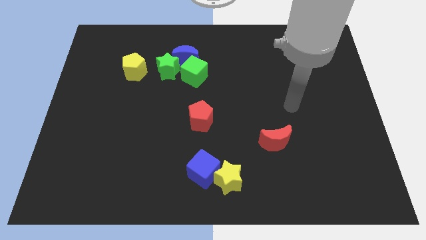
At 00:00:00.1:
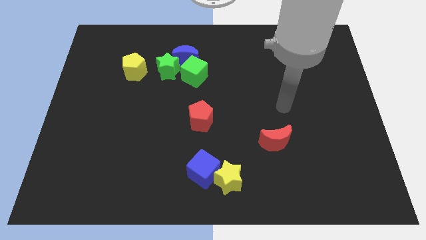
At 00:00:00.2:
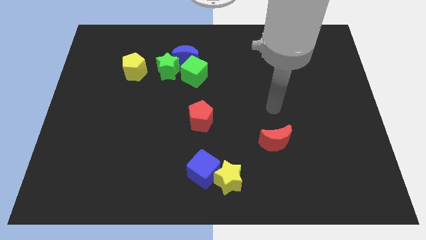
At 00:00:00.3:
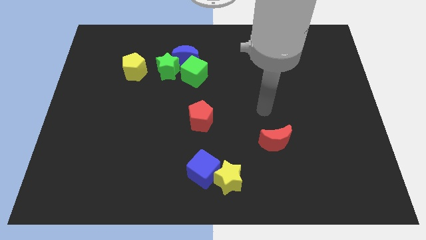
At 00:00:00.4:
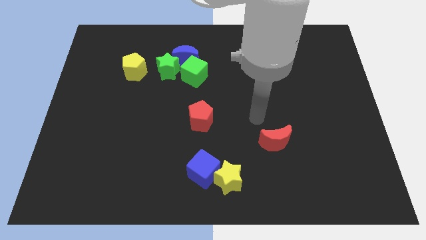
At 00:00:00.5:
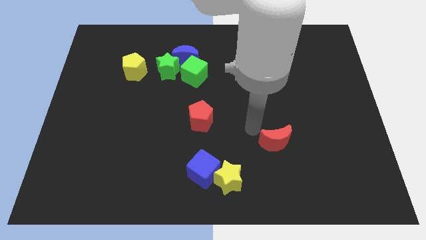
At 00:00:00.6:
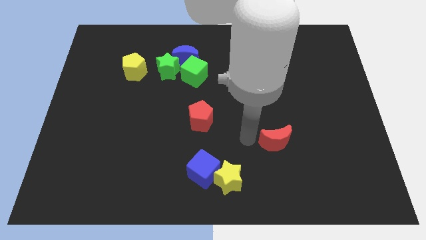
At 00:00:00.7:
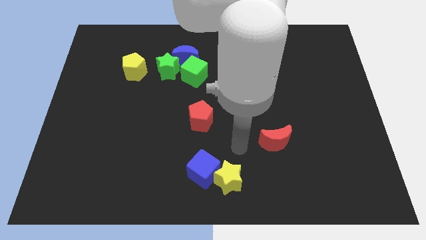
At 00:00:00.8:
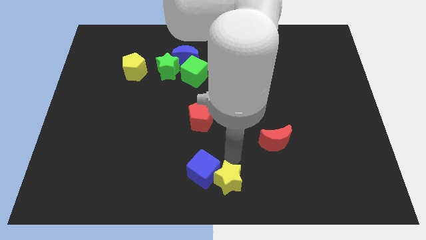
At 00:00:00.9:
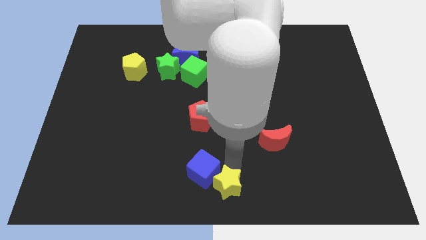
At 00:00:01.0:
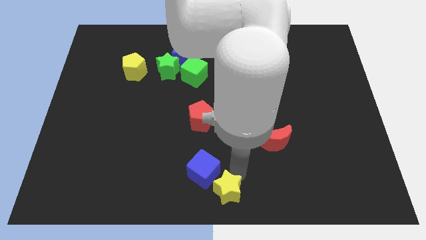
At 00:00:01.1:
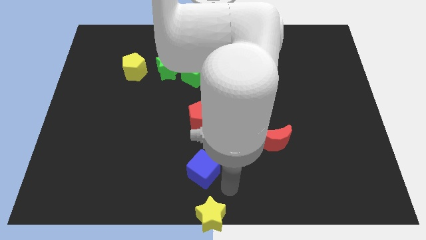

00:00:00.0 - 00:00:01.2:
pull the blue cube apart from the yellow star

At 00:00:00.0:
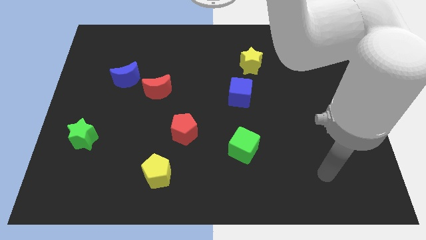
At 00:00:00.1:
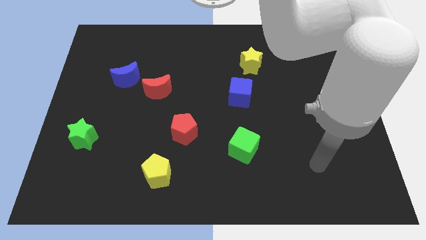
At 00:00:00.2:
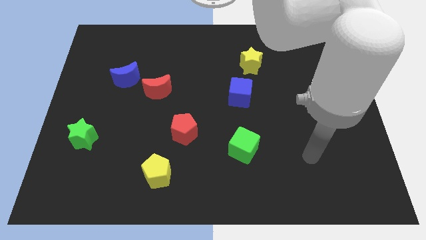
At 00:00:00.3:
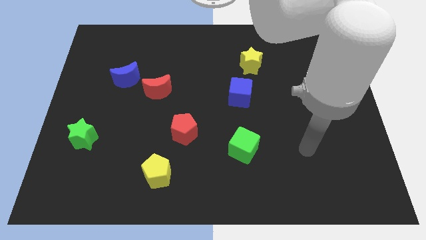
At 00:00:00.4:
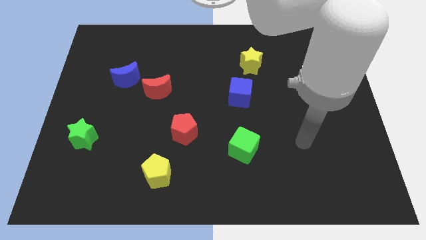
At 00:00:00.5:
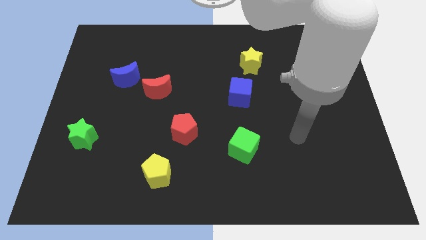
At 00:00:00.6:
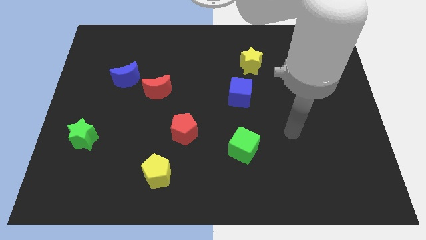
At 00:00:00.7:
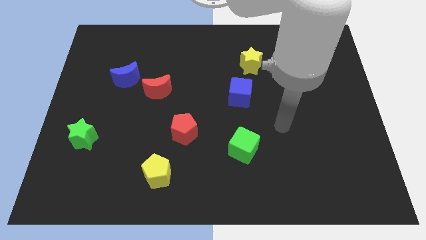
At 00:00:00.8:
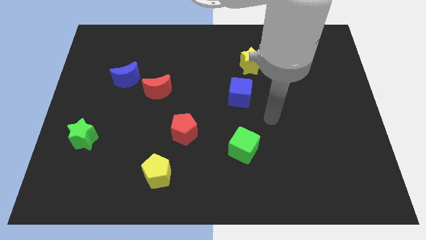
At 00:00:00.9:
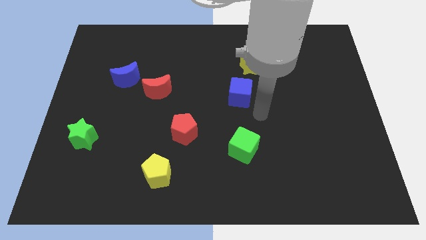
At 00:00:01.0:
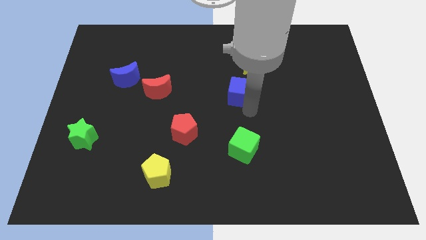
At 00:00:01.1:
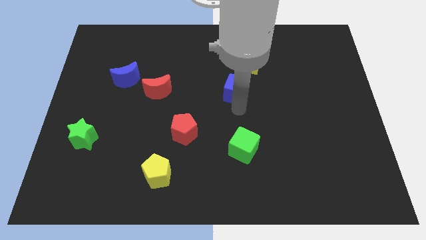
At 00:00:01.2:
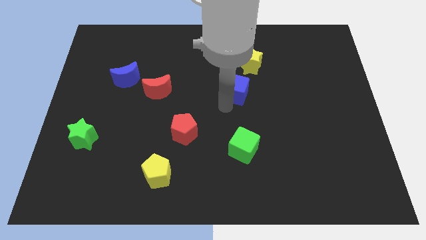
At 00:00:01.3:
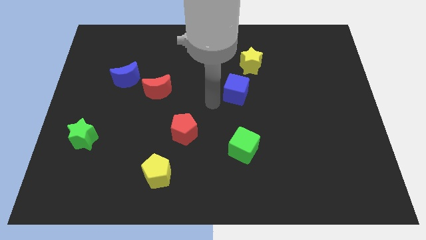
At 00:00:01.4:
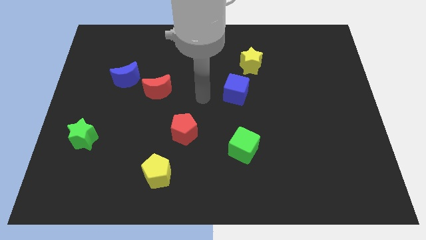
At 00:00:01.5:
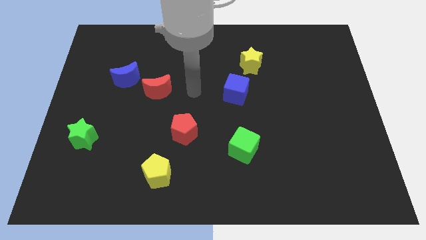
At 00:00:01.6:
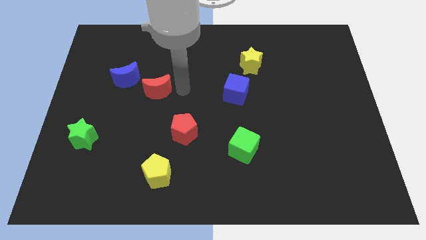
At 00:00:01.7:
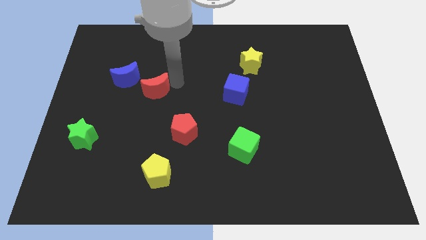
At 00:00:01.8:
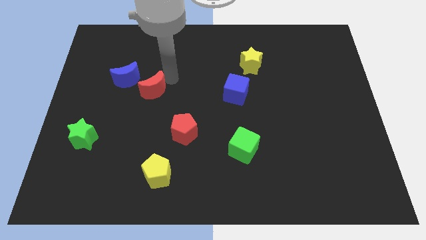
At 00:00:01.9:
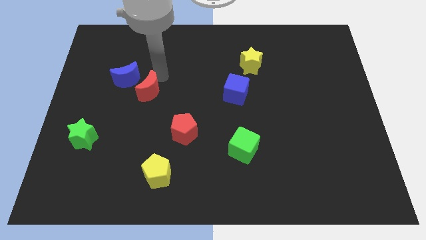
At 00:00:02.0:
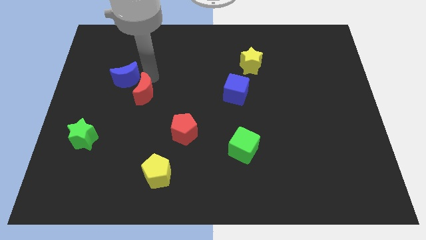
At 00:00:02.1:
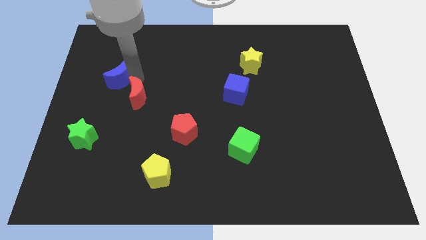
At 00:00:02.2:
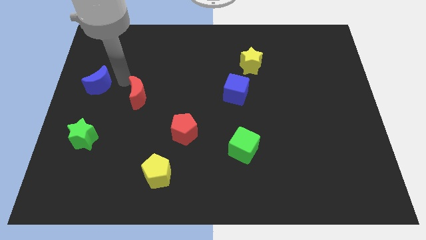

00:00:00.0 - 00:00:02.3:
move the red moon away from the blue moon

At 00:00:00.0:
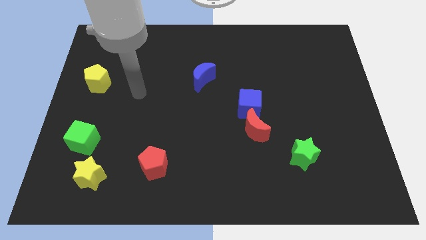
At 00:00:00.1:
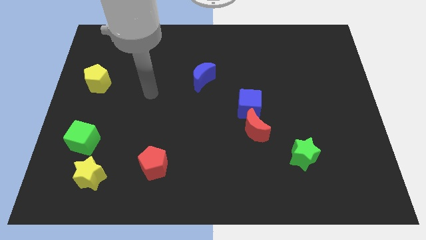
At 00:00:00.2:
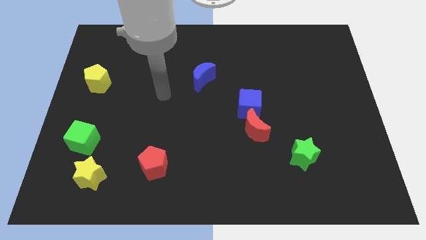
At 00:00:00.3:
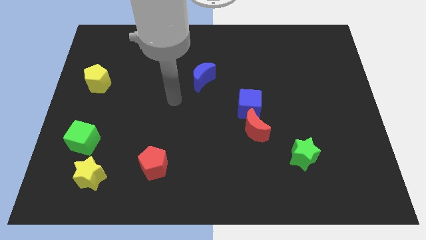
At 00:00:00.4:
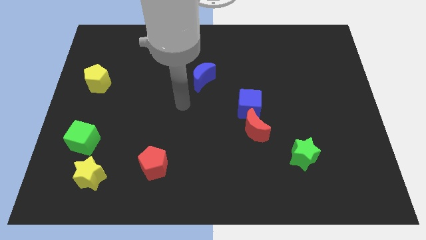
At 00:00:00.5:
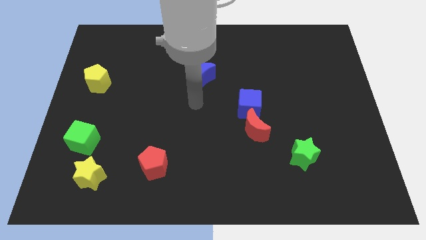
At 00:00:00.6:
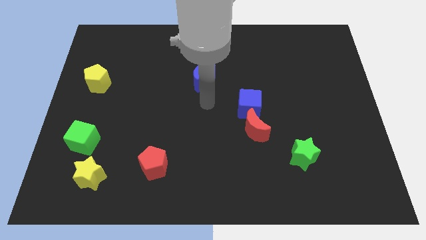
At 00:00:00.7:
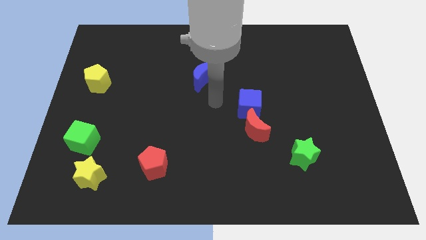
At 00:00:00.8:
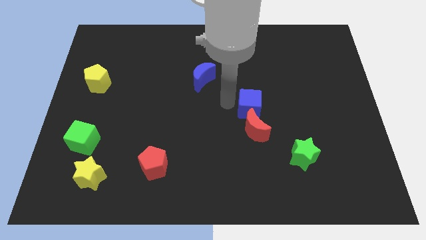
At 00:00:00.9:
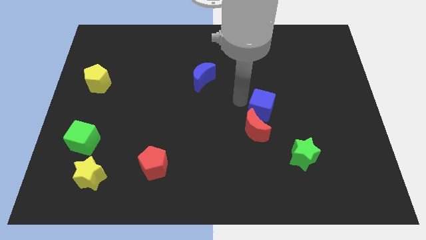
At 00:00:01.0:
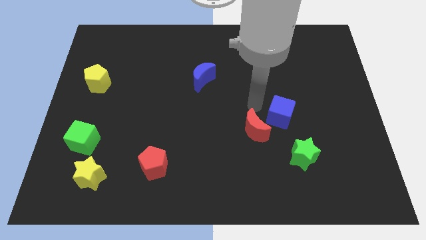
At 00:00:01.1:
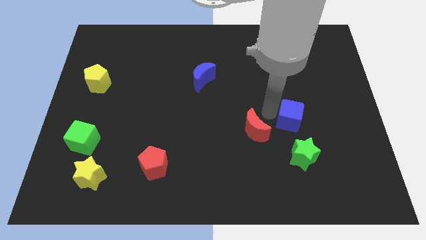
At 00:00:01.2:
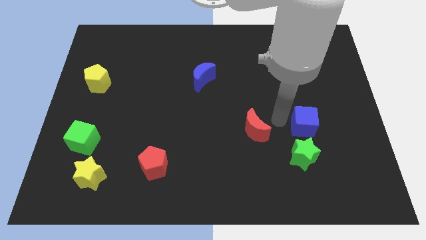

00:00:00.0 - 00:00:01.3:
separate the red moon from the blue cube

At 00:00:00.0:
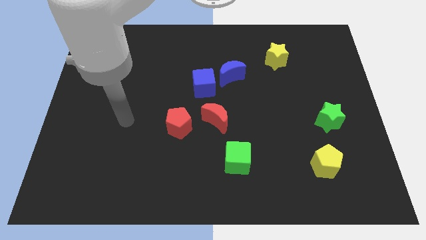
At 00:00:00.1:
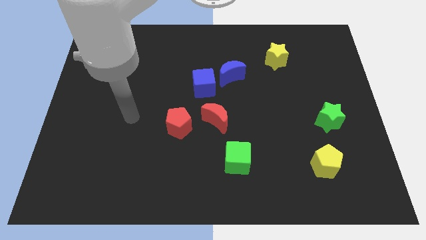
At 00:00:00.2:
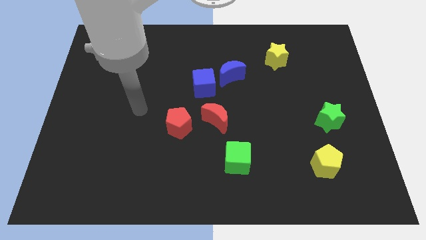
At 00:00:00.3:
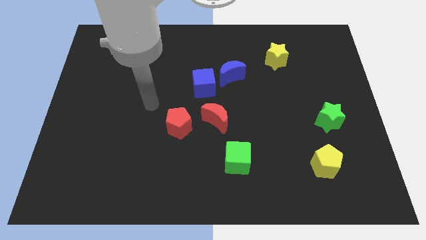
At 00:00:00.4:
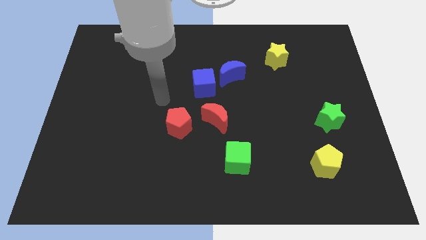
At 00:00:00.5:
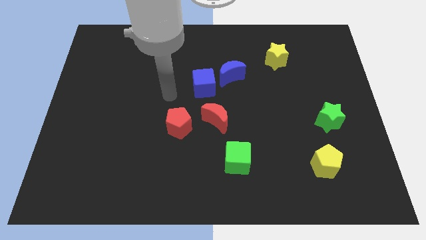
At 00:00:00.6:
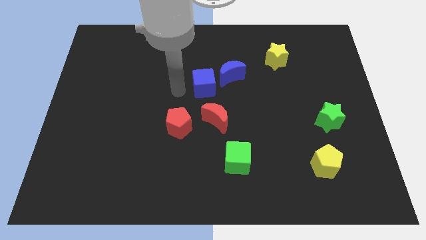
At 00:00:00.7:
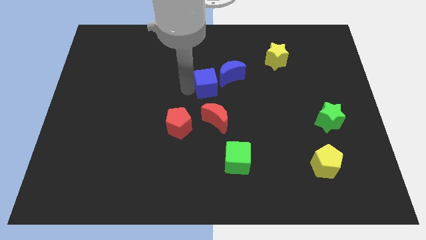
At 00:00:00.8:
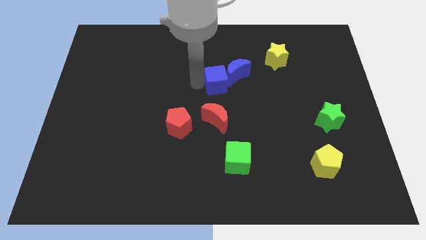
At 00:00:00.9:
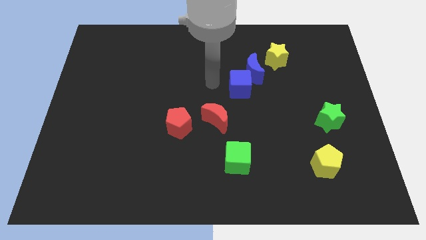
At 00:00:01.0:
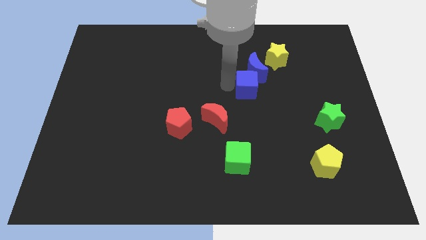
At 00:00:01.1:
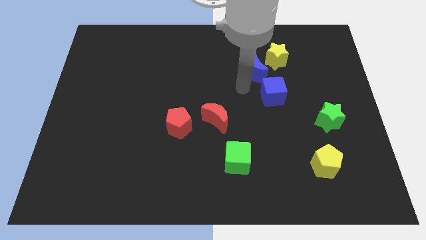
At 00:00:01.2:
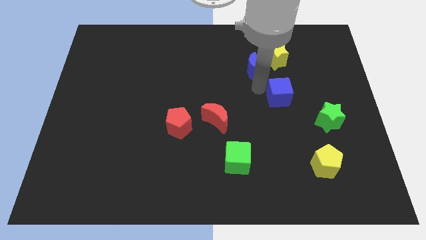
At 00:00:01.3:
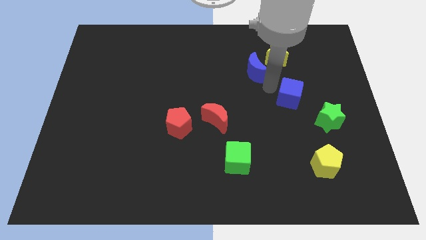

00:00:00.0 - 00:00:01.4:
move the blue moon away from the blue cube

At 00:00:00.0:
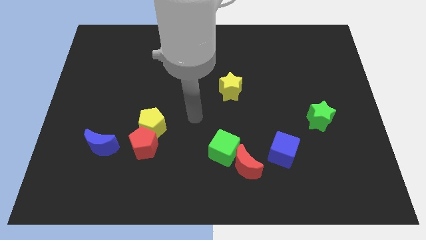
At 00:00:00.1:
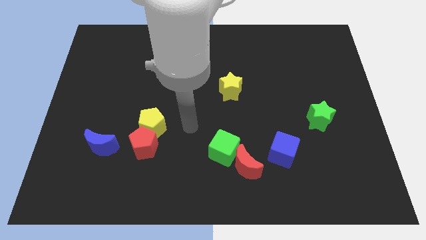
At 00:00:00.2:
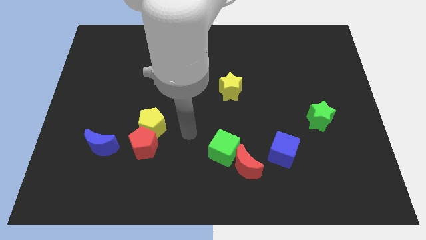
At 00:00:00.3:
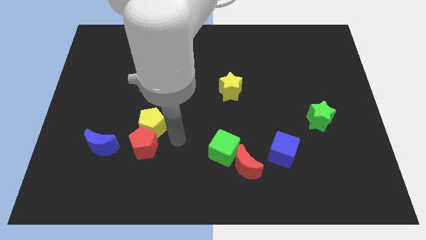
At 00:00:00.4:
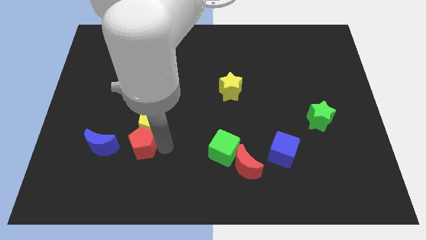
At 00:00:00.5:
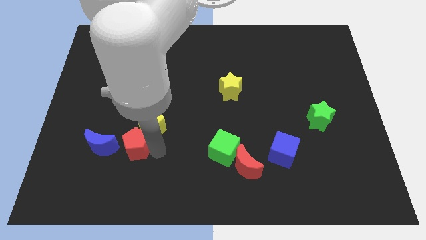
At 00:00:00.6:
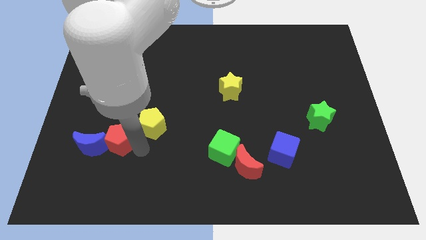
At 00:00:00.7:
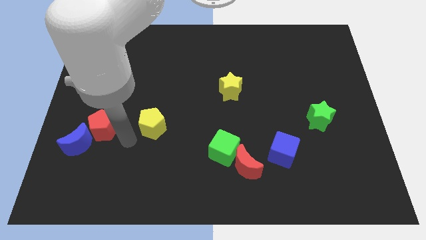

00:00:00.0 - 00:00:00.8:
move the yellow pentagon away from the red pentagon

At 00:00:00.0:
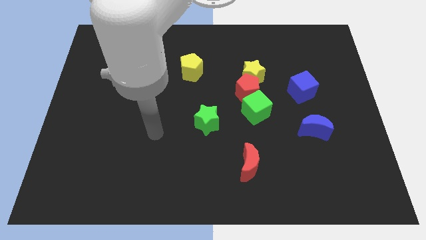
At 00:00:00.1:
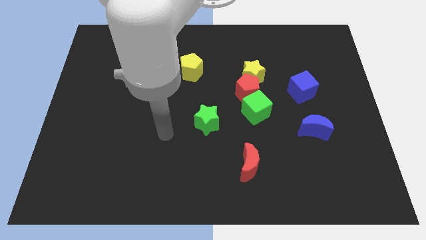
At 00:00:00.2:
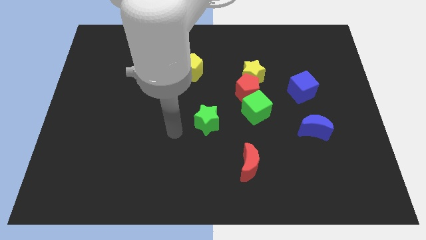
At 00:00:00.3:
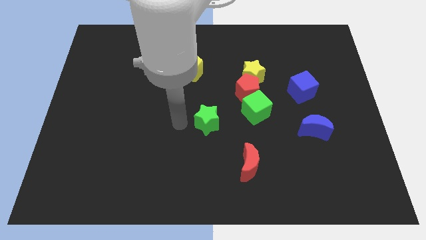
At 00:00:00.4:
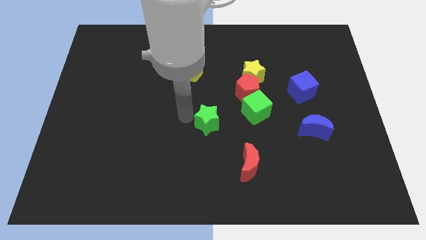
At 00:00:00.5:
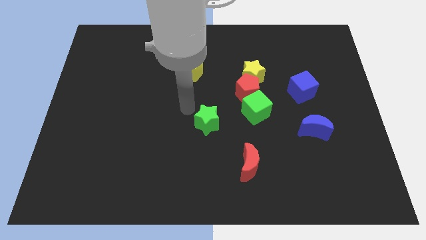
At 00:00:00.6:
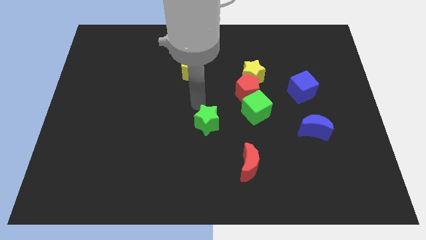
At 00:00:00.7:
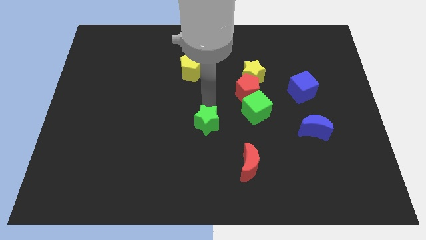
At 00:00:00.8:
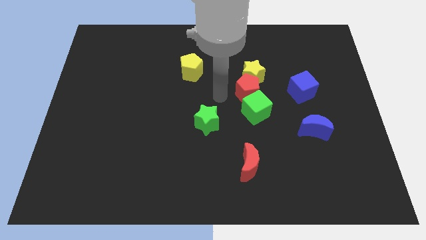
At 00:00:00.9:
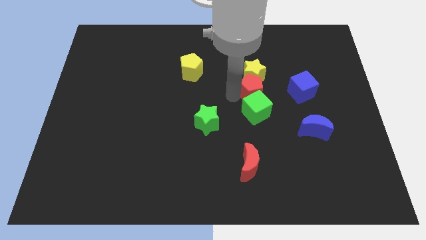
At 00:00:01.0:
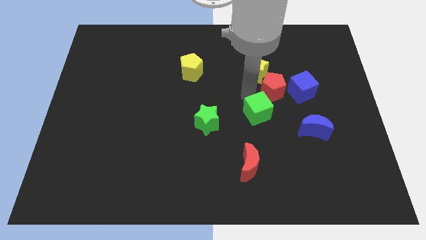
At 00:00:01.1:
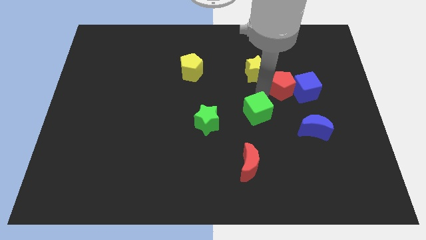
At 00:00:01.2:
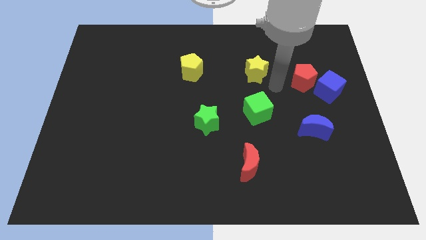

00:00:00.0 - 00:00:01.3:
move the yellow star away from the red pentagon

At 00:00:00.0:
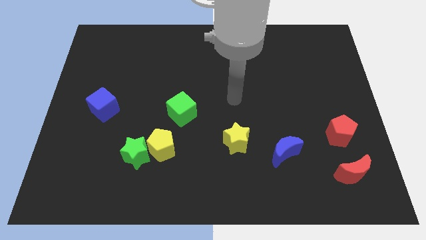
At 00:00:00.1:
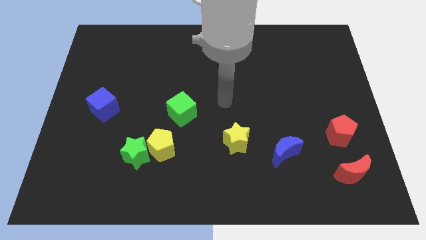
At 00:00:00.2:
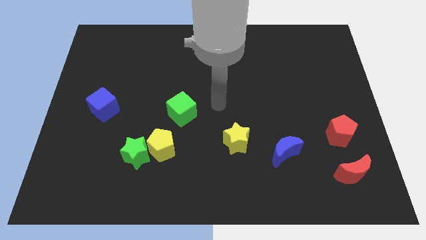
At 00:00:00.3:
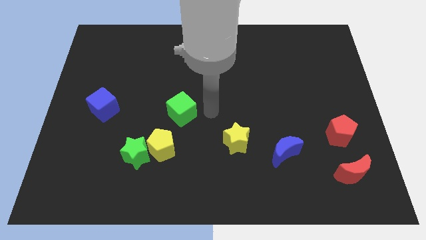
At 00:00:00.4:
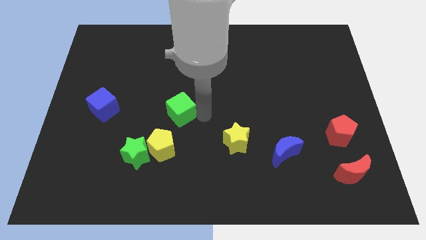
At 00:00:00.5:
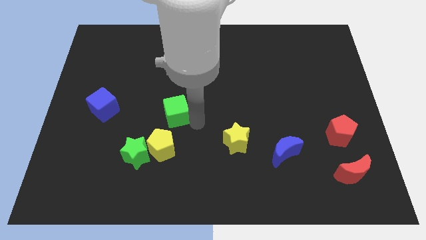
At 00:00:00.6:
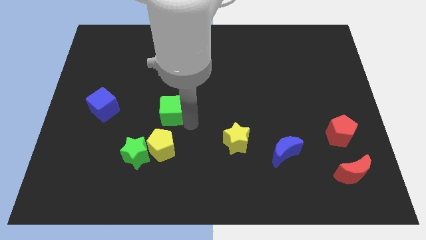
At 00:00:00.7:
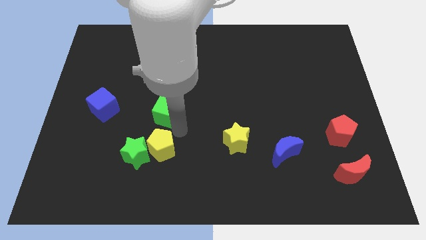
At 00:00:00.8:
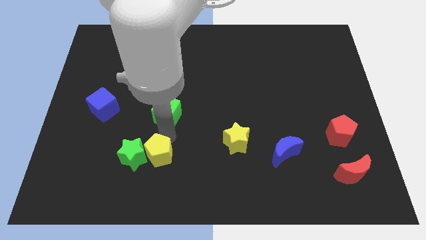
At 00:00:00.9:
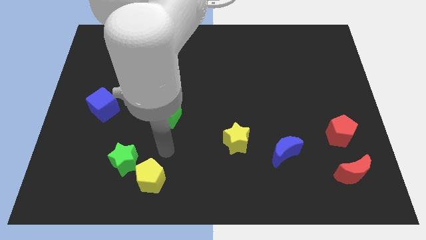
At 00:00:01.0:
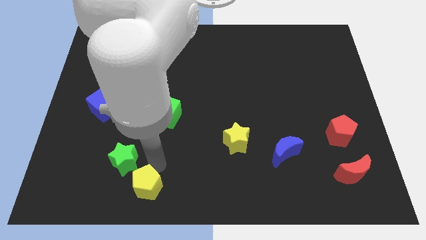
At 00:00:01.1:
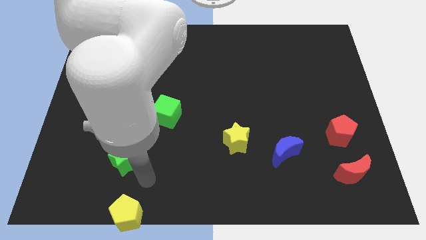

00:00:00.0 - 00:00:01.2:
pull the green star apart from the yellow pentagon
